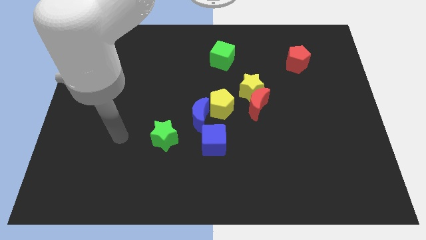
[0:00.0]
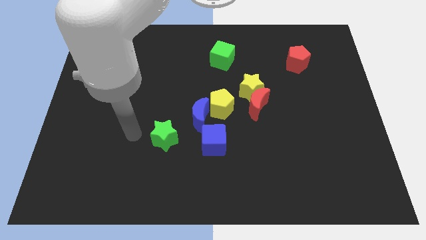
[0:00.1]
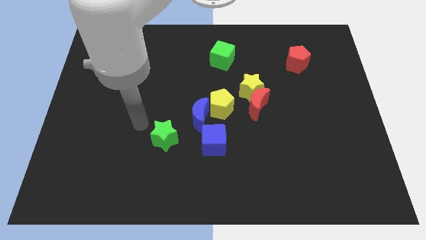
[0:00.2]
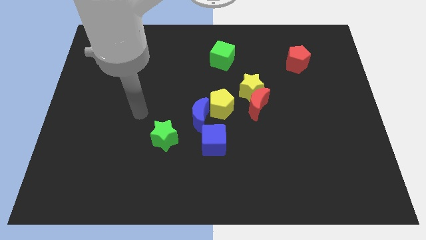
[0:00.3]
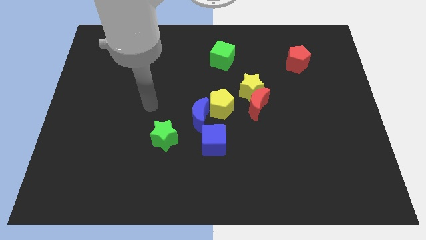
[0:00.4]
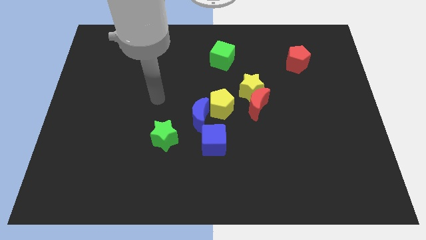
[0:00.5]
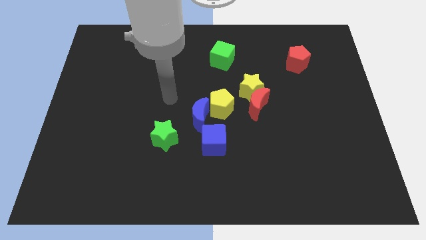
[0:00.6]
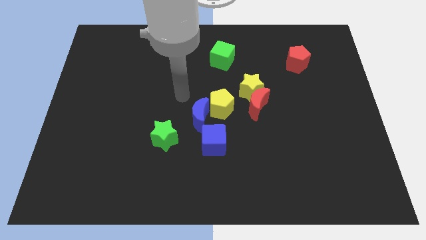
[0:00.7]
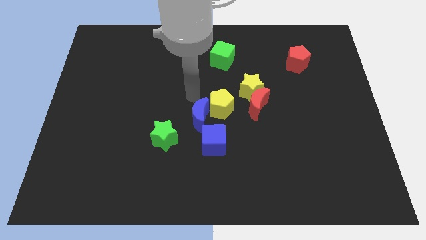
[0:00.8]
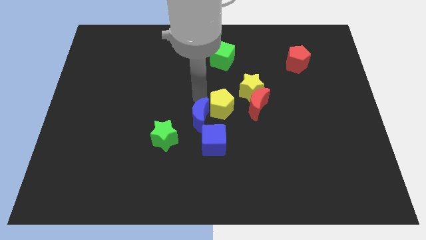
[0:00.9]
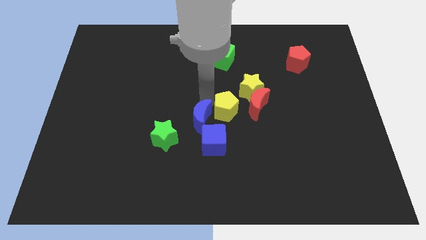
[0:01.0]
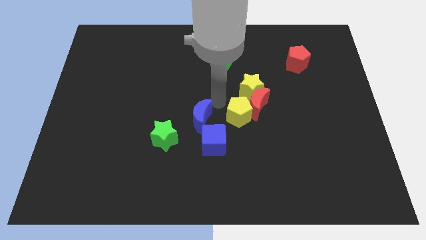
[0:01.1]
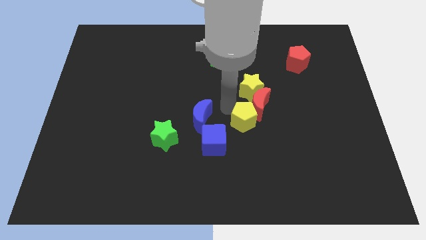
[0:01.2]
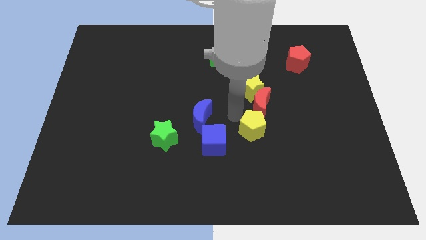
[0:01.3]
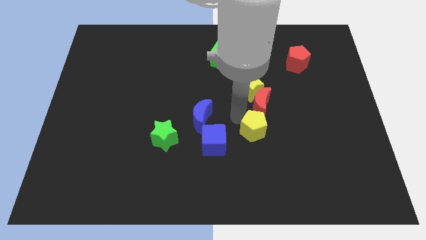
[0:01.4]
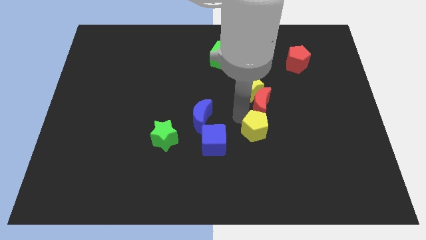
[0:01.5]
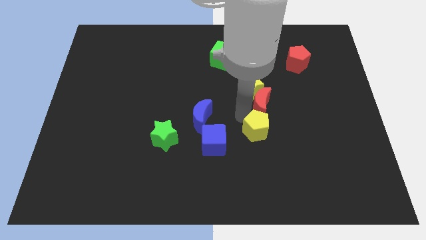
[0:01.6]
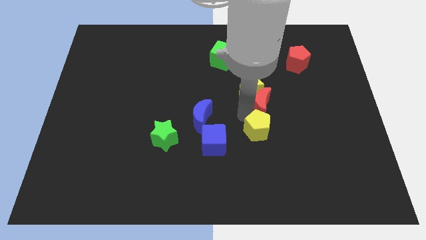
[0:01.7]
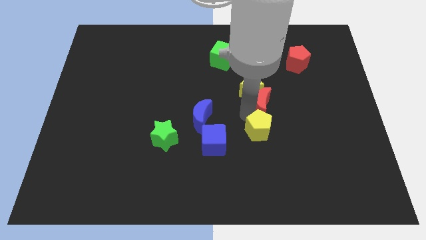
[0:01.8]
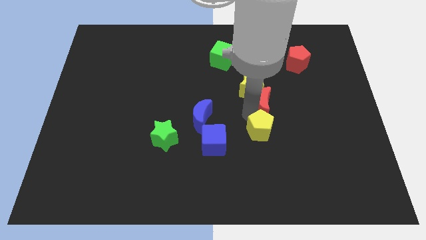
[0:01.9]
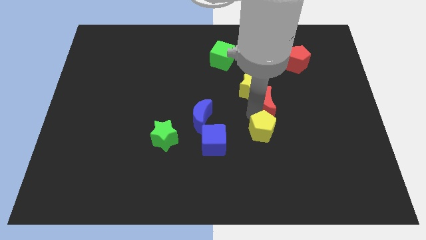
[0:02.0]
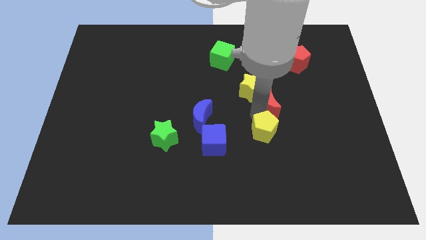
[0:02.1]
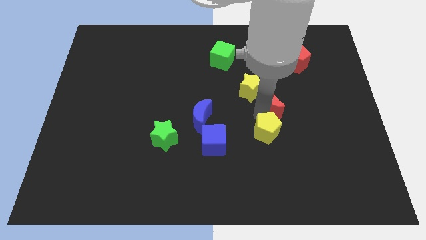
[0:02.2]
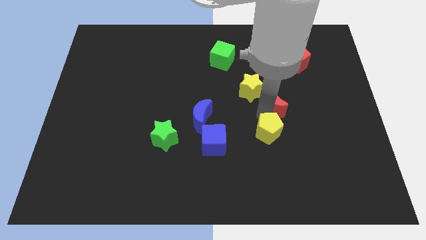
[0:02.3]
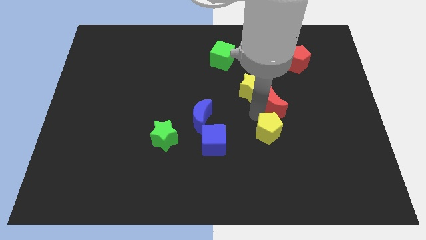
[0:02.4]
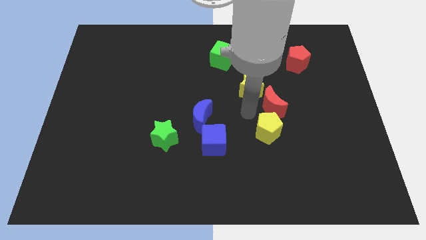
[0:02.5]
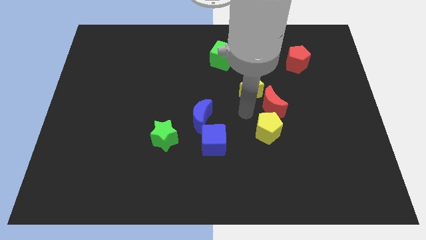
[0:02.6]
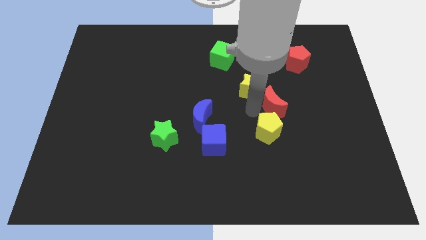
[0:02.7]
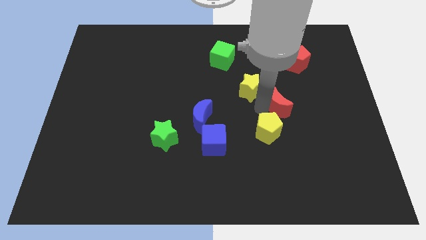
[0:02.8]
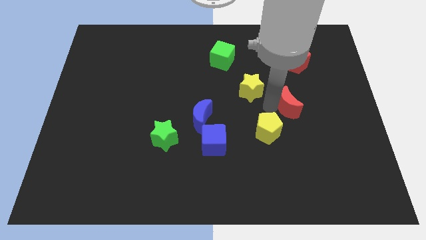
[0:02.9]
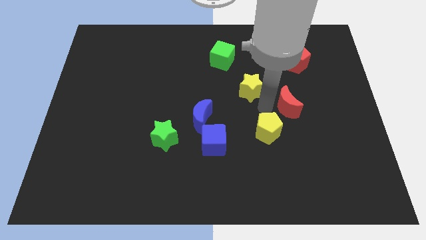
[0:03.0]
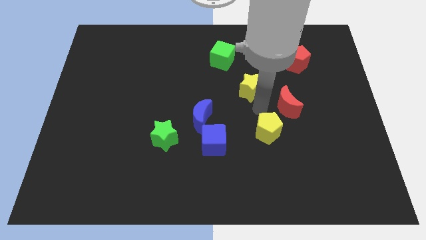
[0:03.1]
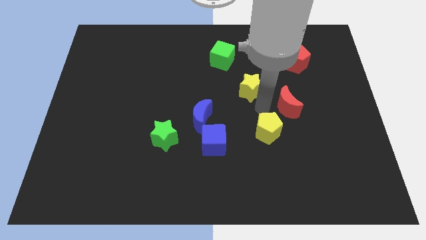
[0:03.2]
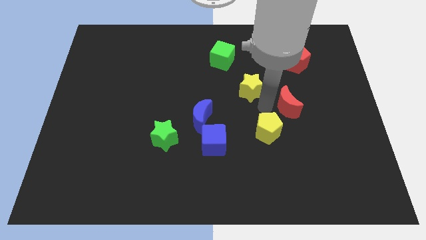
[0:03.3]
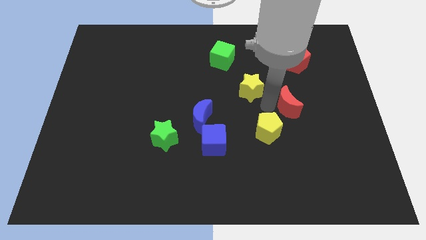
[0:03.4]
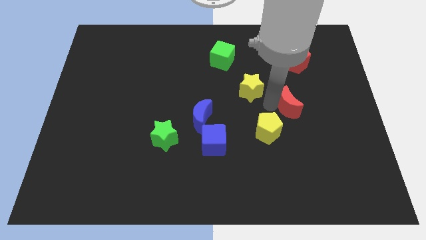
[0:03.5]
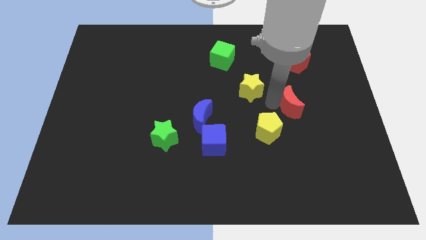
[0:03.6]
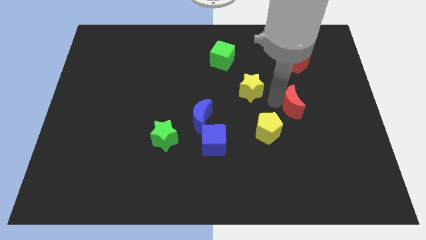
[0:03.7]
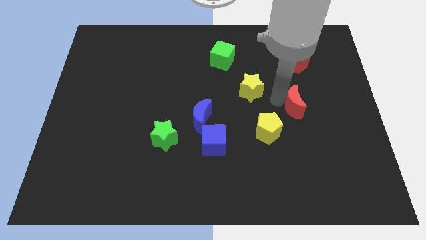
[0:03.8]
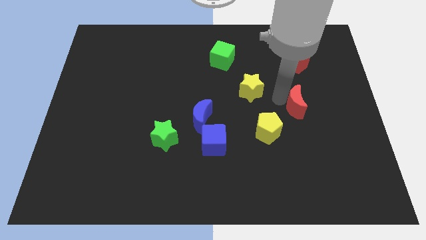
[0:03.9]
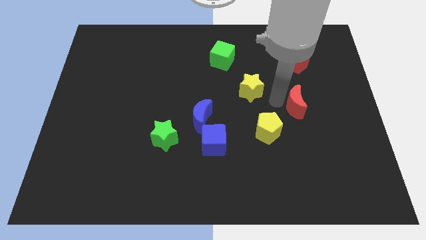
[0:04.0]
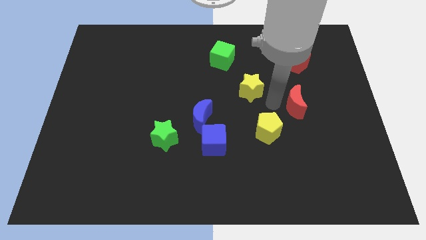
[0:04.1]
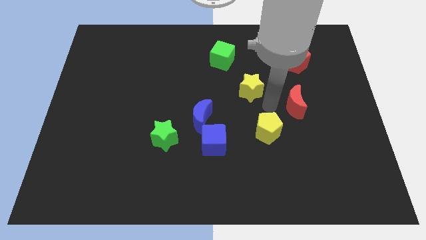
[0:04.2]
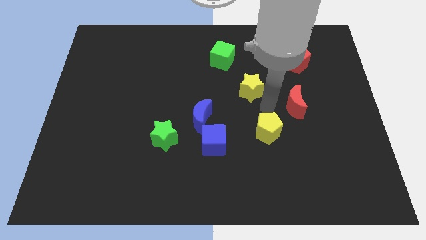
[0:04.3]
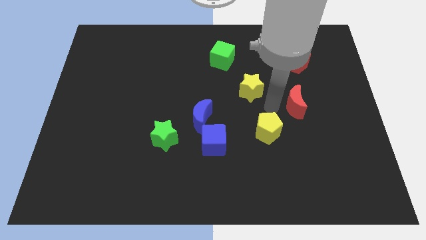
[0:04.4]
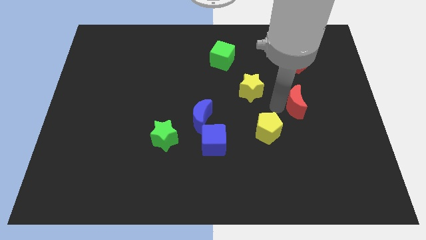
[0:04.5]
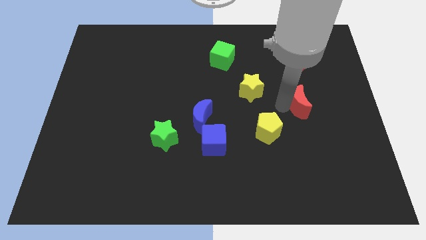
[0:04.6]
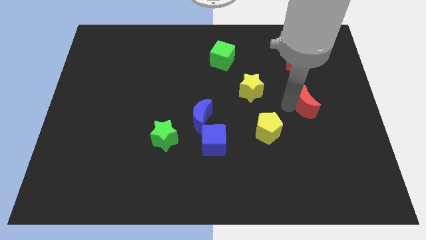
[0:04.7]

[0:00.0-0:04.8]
separate the red moon from the yellow star and yellow pentagon

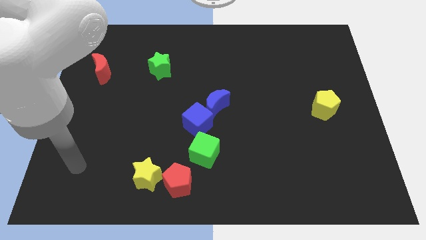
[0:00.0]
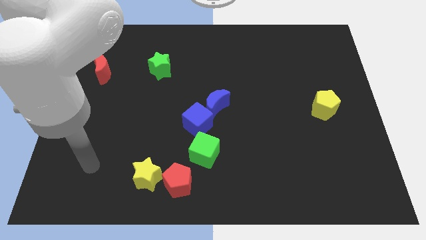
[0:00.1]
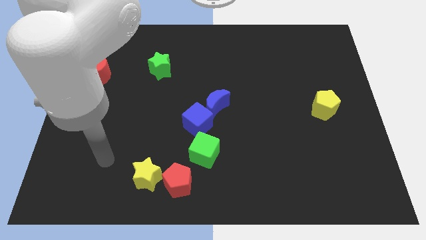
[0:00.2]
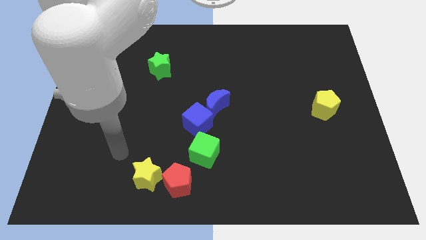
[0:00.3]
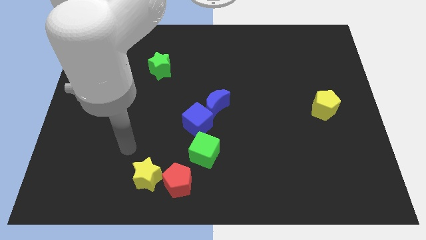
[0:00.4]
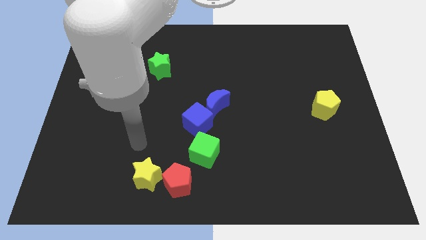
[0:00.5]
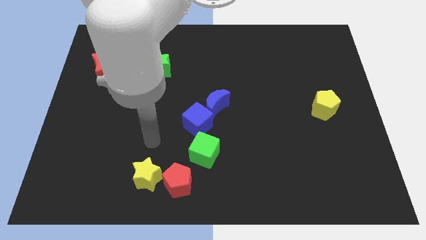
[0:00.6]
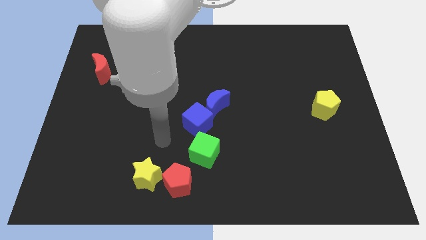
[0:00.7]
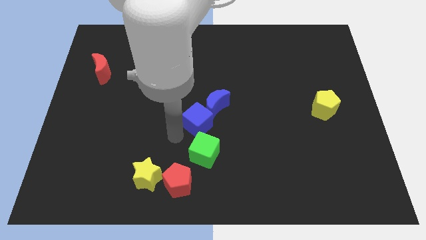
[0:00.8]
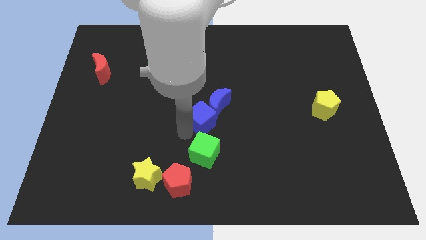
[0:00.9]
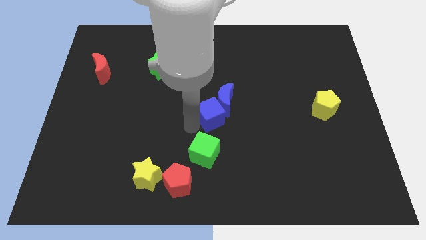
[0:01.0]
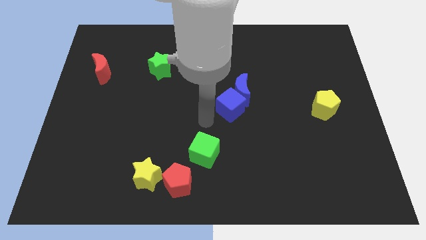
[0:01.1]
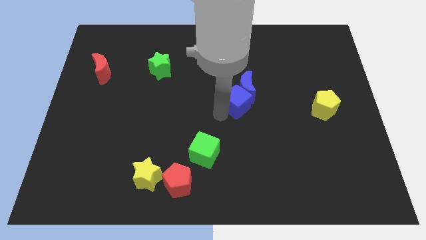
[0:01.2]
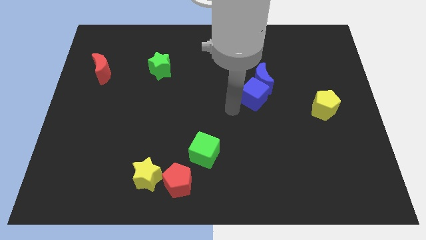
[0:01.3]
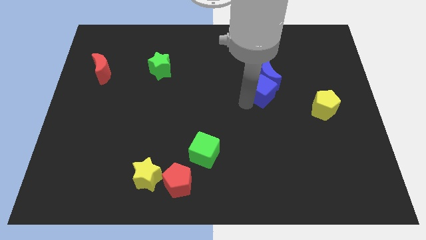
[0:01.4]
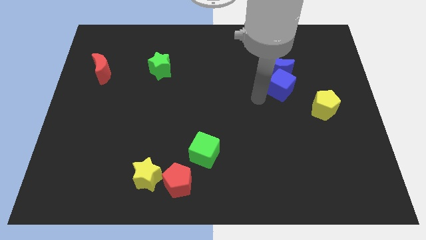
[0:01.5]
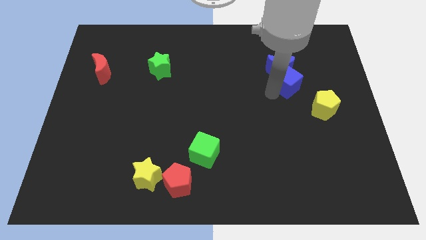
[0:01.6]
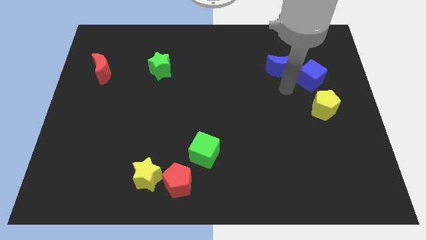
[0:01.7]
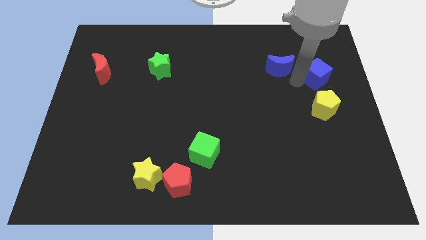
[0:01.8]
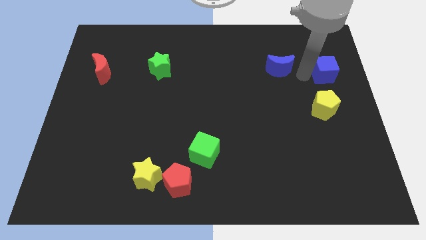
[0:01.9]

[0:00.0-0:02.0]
separate the blue moon from the blue cube

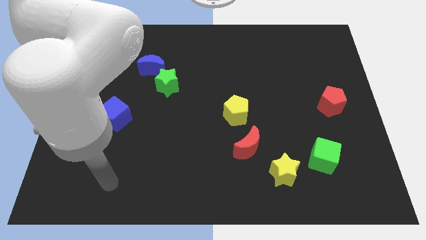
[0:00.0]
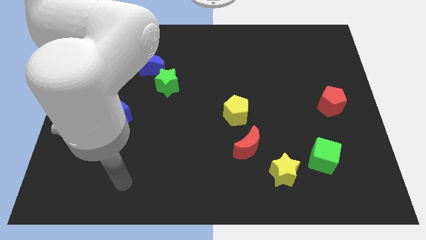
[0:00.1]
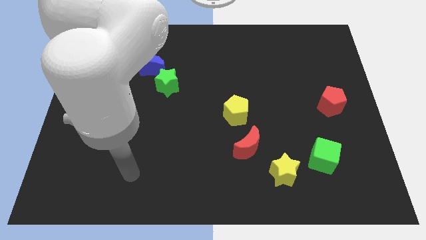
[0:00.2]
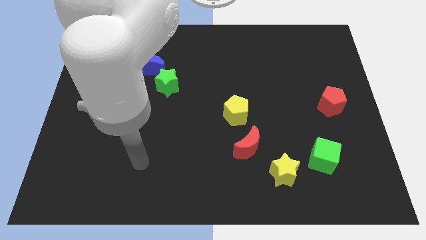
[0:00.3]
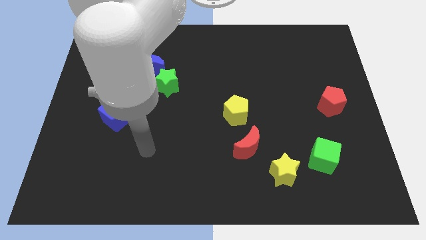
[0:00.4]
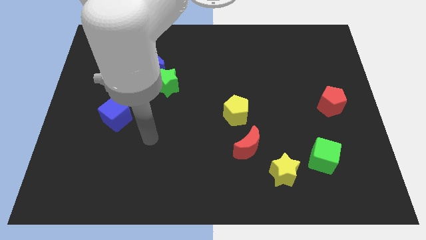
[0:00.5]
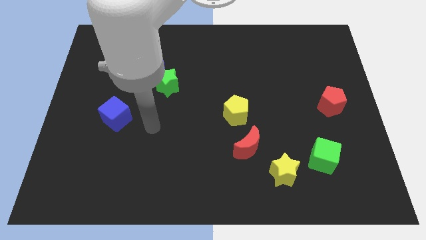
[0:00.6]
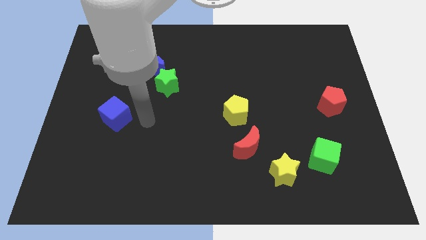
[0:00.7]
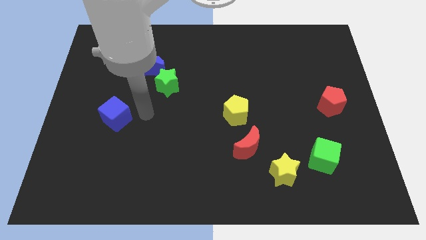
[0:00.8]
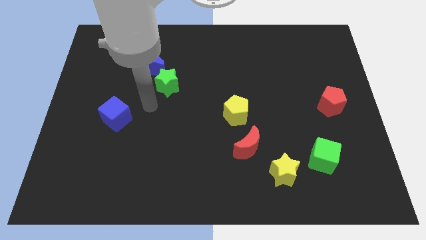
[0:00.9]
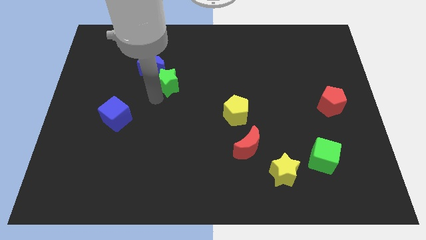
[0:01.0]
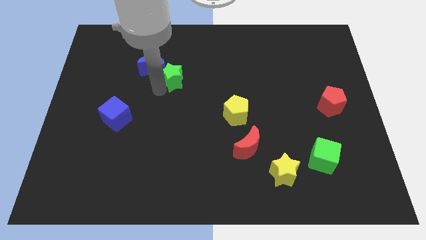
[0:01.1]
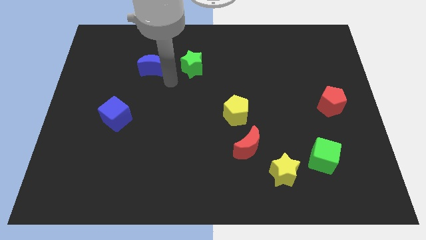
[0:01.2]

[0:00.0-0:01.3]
move the blue moon away from the green star

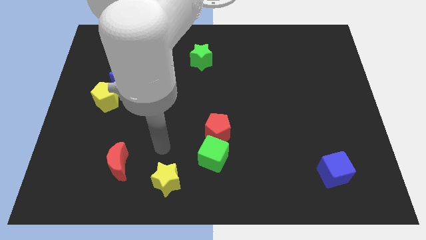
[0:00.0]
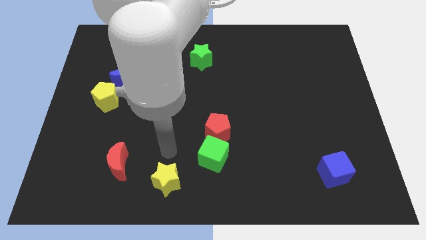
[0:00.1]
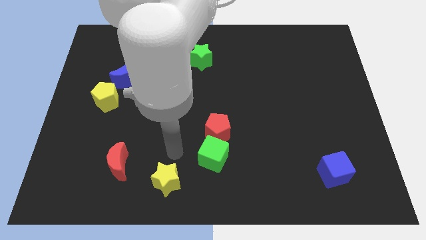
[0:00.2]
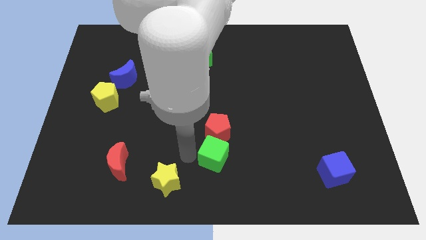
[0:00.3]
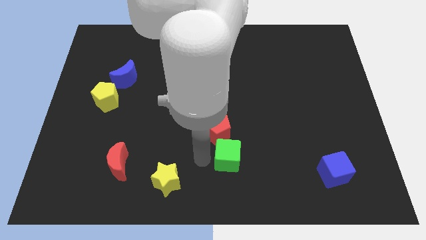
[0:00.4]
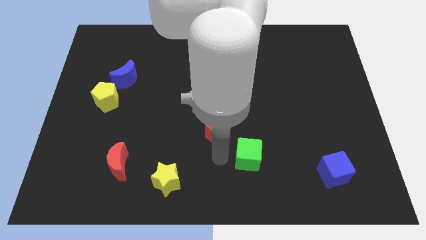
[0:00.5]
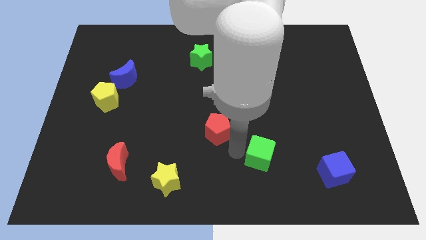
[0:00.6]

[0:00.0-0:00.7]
pull the red pentagon apart from the green cube

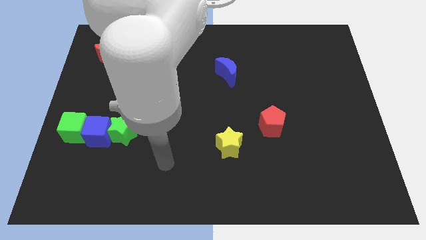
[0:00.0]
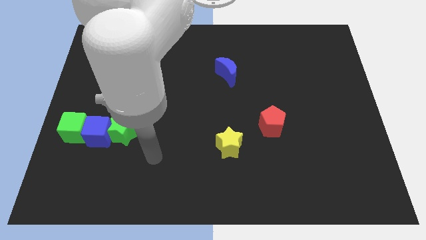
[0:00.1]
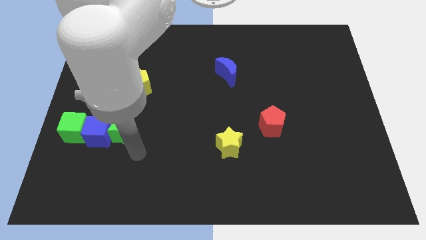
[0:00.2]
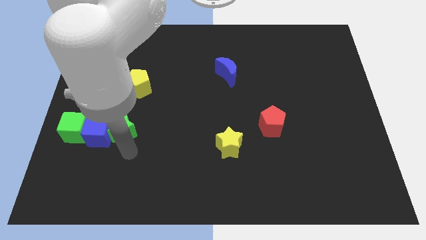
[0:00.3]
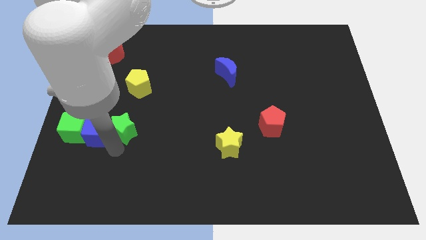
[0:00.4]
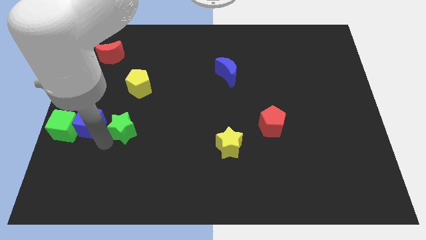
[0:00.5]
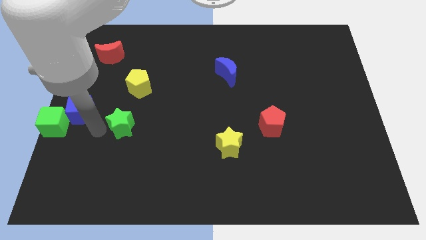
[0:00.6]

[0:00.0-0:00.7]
move the green star away from the blue cube
